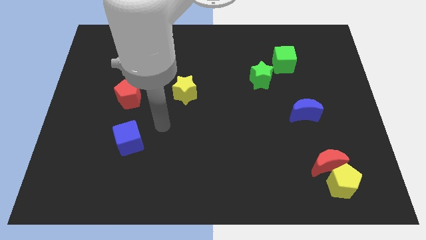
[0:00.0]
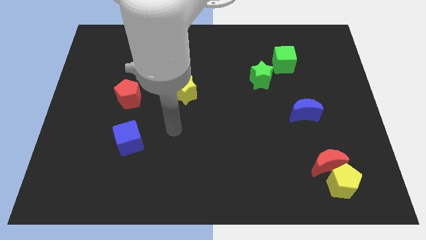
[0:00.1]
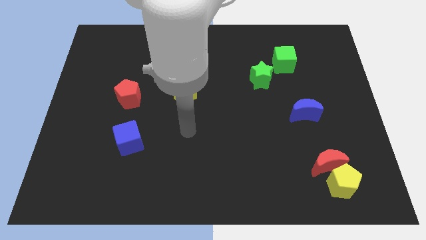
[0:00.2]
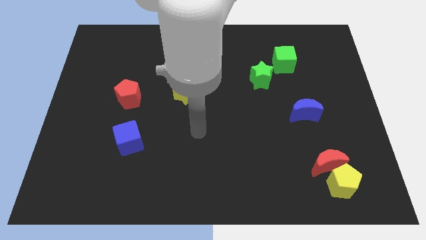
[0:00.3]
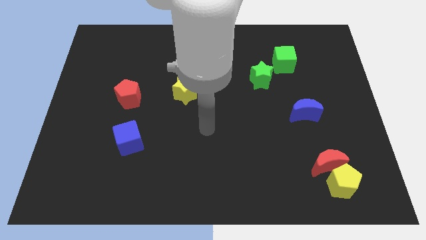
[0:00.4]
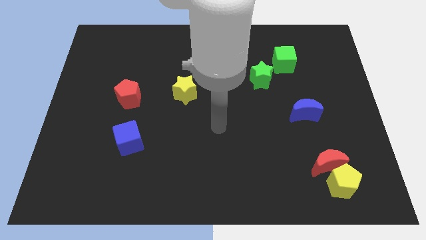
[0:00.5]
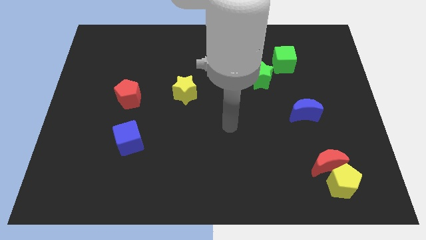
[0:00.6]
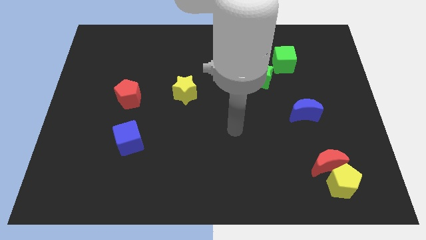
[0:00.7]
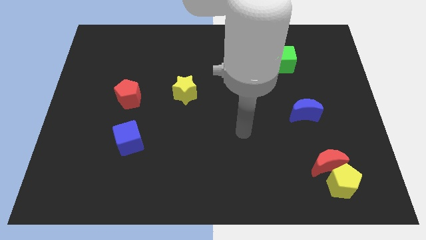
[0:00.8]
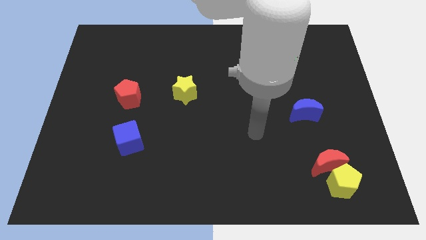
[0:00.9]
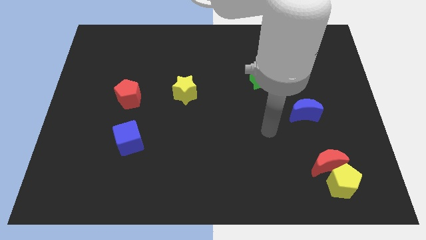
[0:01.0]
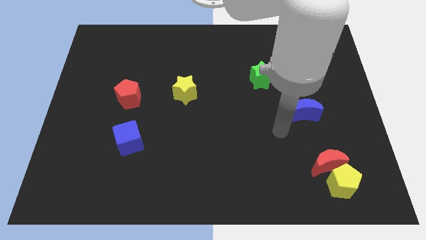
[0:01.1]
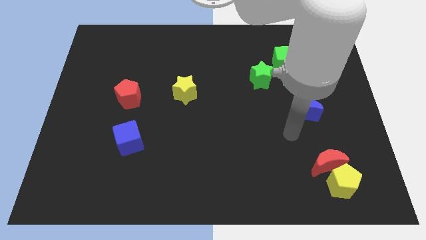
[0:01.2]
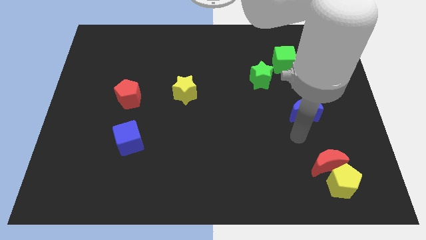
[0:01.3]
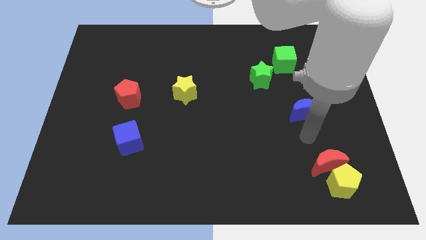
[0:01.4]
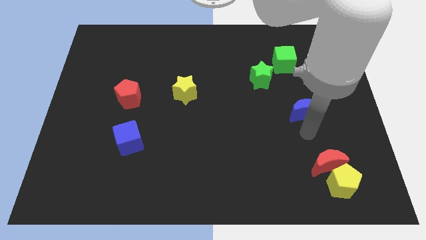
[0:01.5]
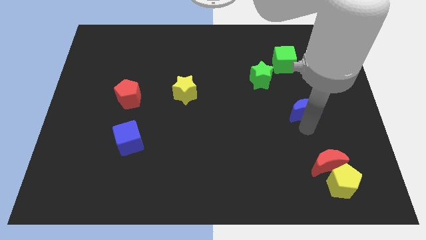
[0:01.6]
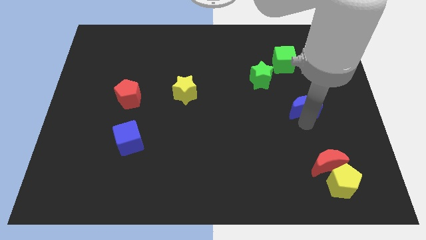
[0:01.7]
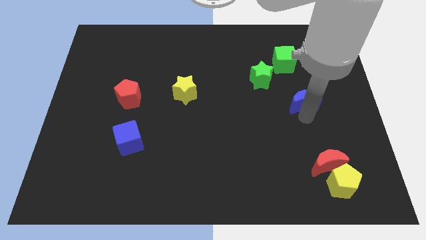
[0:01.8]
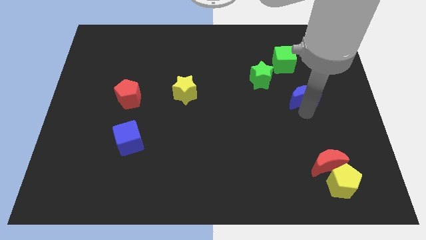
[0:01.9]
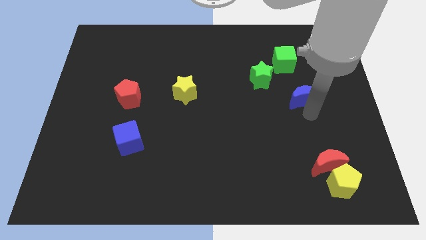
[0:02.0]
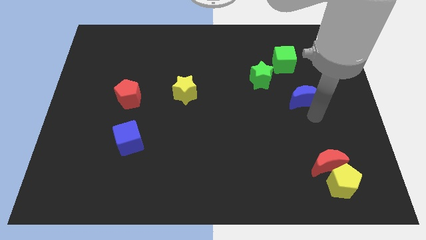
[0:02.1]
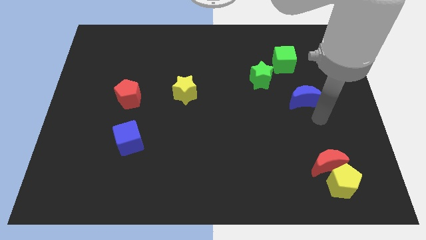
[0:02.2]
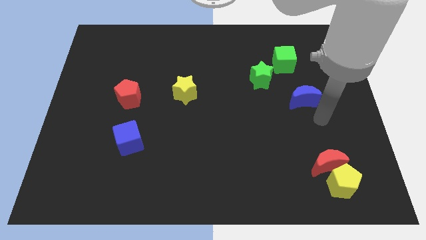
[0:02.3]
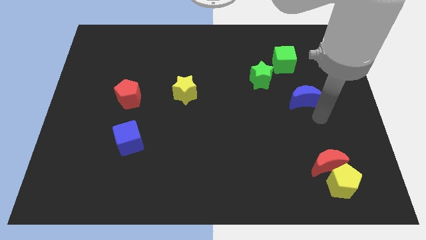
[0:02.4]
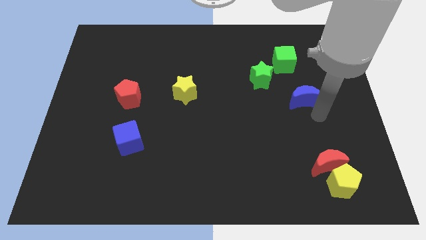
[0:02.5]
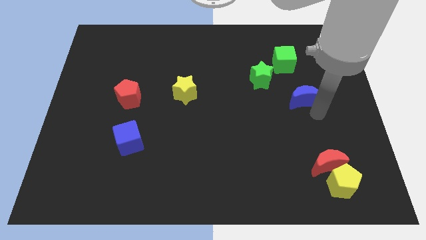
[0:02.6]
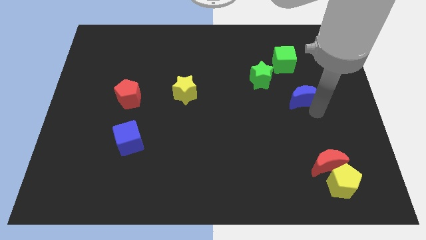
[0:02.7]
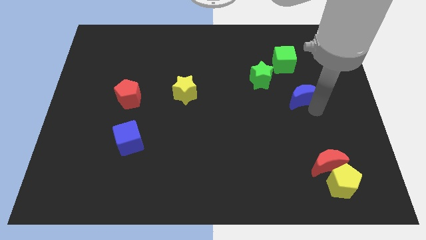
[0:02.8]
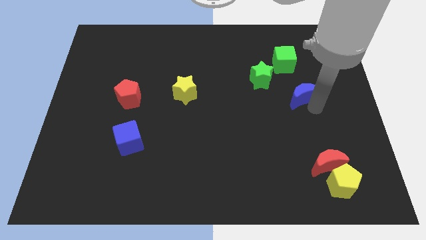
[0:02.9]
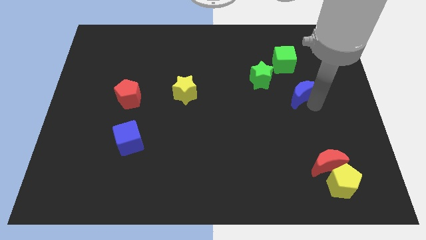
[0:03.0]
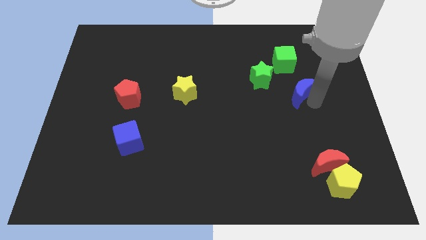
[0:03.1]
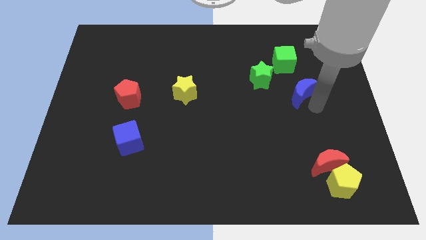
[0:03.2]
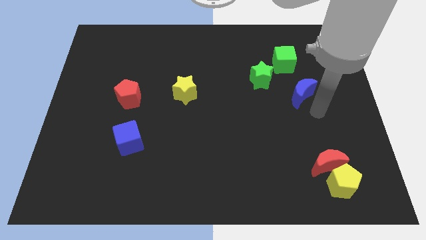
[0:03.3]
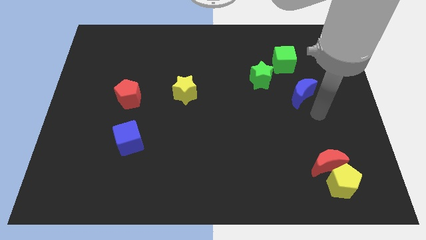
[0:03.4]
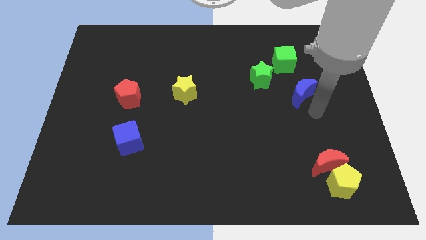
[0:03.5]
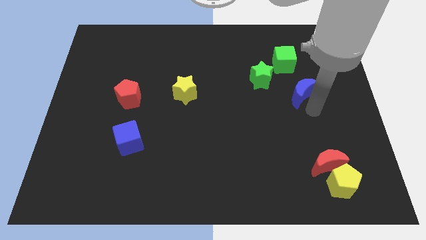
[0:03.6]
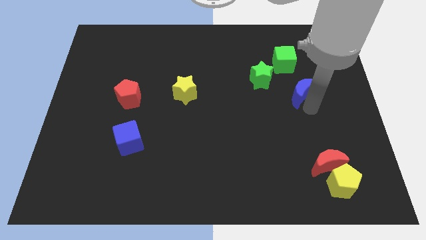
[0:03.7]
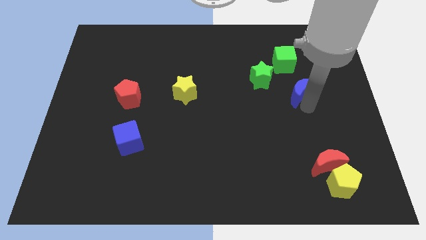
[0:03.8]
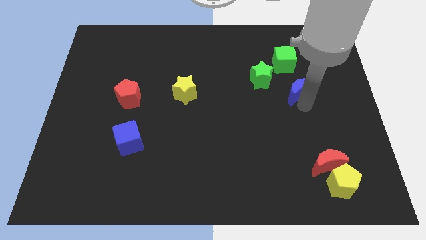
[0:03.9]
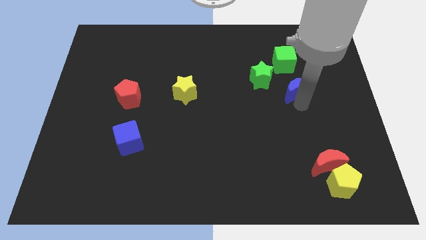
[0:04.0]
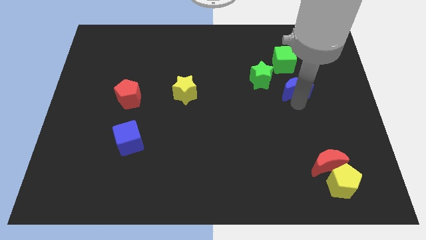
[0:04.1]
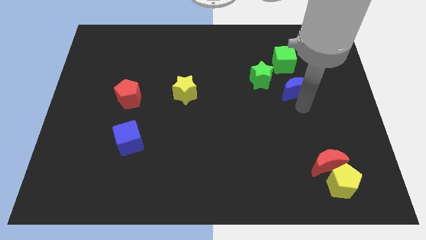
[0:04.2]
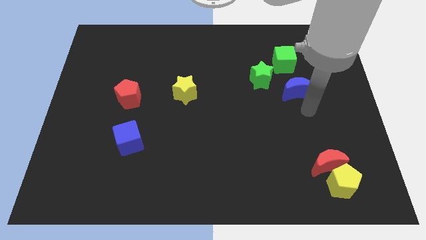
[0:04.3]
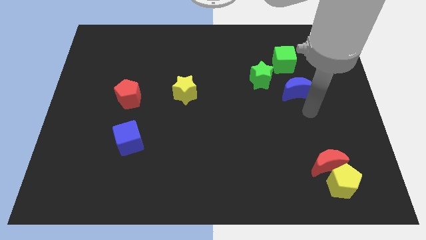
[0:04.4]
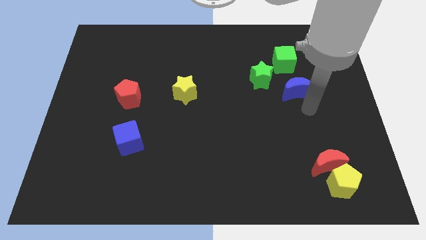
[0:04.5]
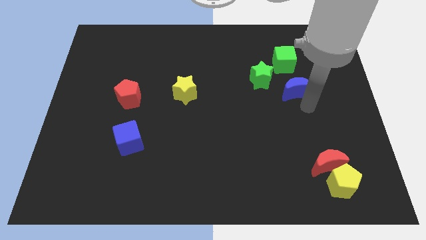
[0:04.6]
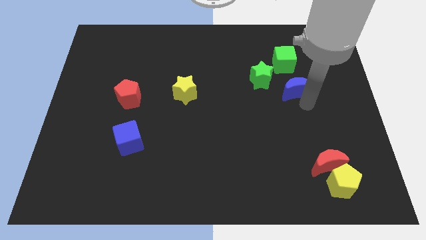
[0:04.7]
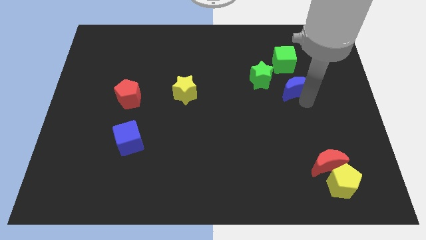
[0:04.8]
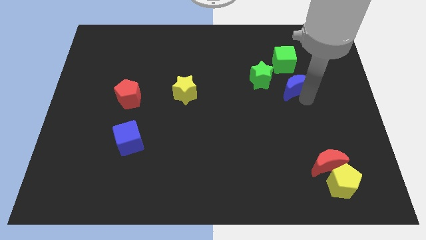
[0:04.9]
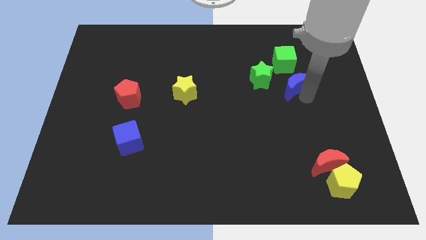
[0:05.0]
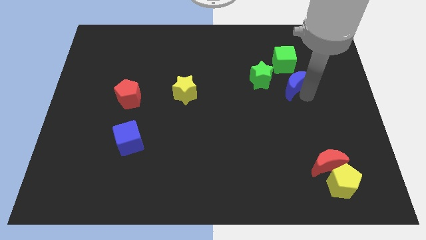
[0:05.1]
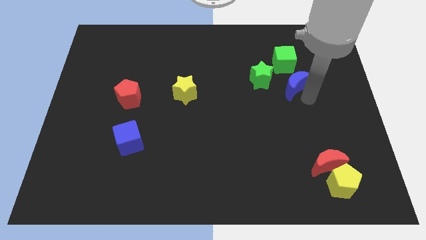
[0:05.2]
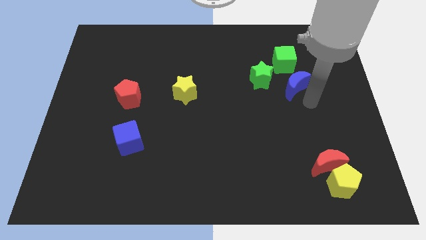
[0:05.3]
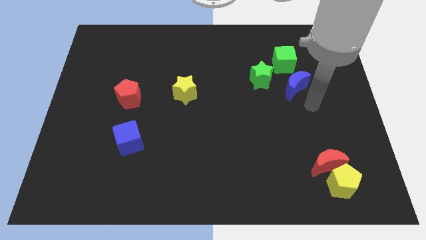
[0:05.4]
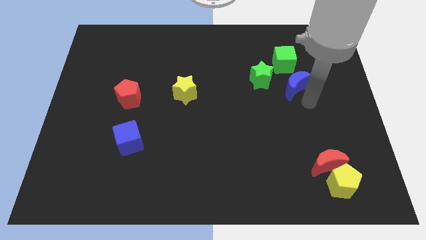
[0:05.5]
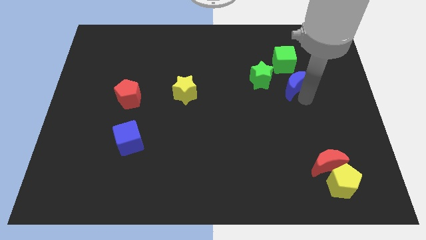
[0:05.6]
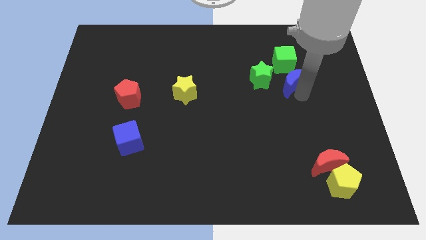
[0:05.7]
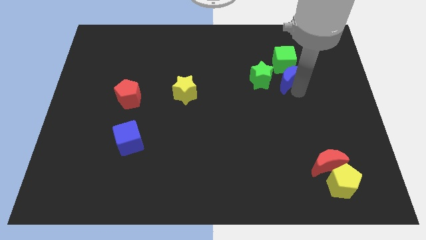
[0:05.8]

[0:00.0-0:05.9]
slide the blue moon to the green cube

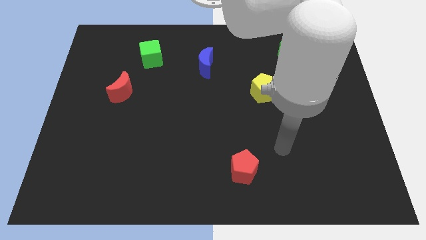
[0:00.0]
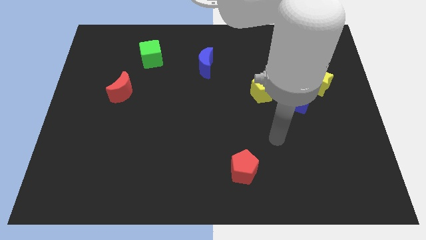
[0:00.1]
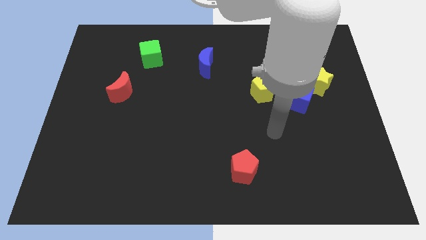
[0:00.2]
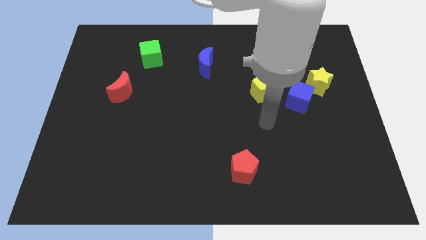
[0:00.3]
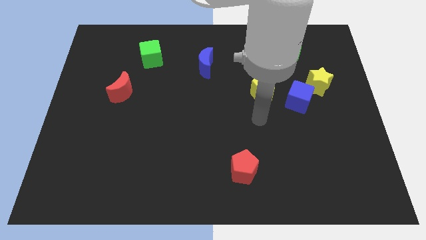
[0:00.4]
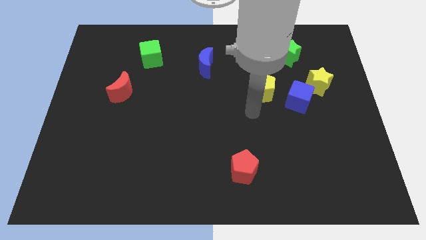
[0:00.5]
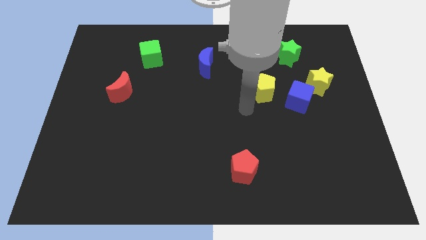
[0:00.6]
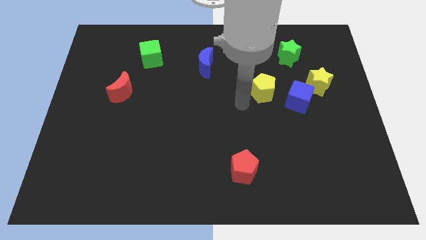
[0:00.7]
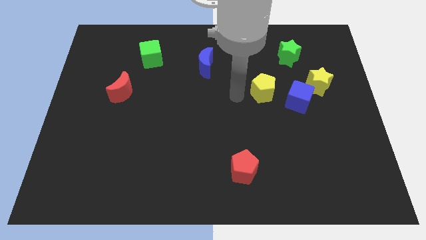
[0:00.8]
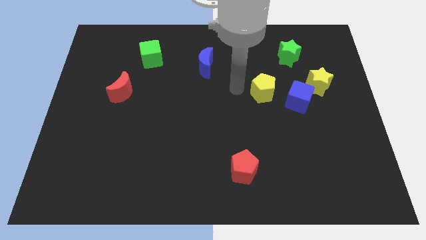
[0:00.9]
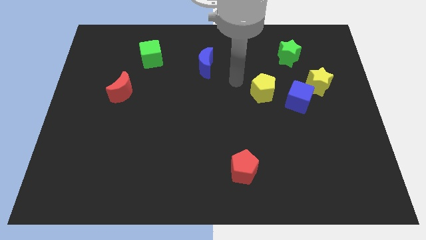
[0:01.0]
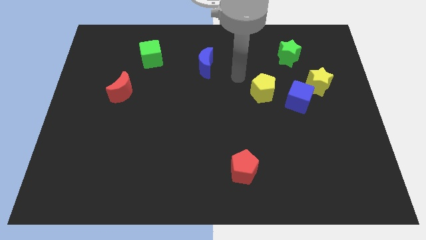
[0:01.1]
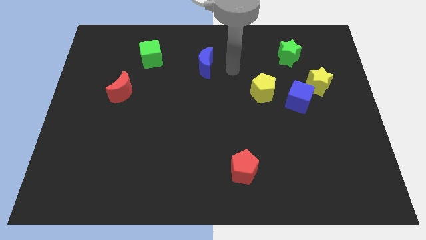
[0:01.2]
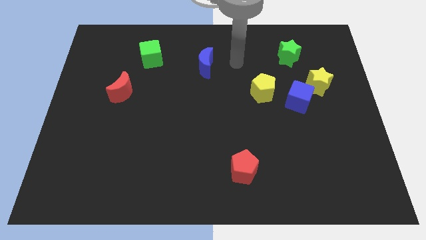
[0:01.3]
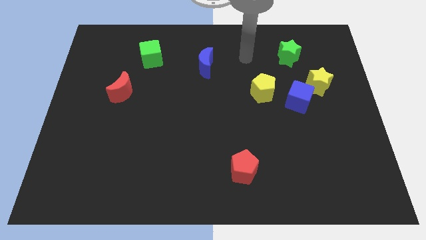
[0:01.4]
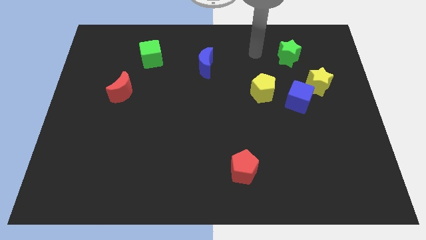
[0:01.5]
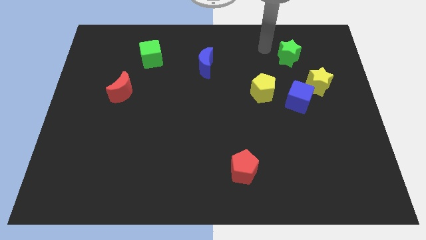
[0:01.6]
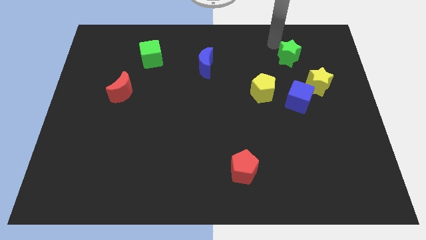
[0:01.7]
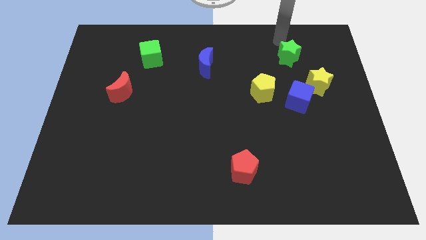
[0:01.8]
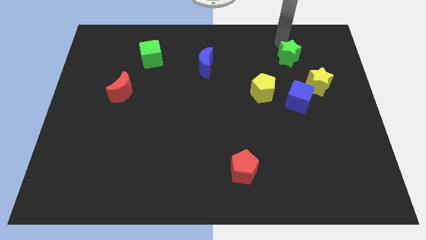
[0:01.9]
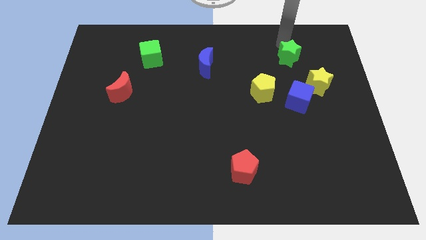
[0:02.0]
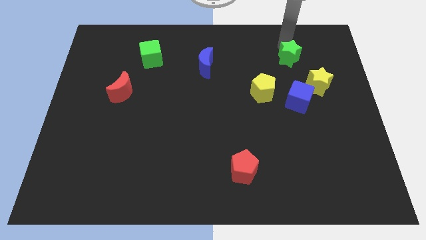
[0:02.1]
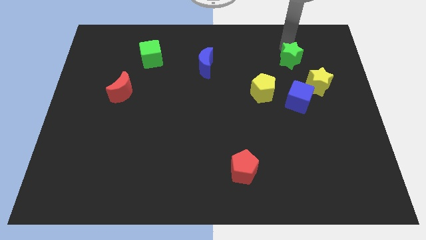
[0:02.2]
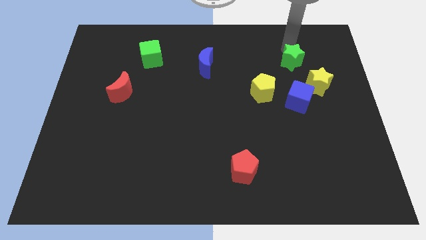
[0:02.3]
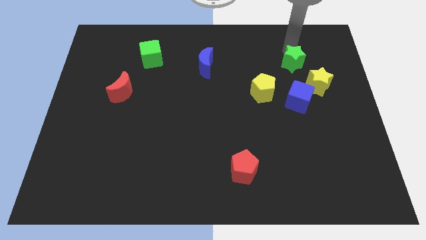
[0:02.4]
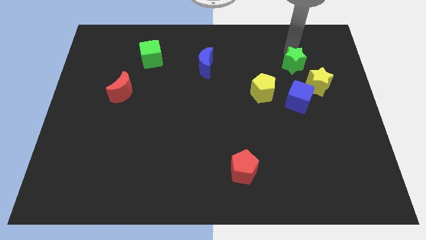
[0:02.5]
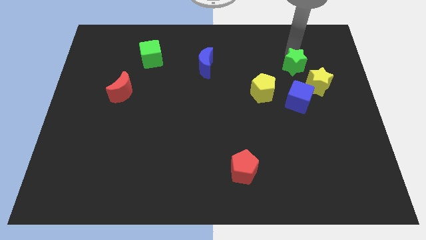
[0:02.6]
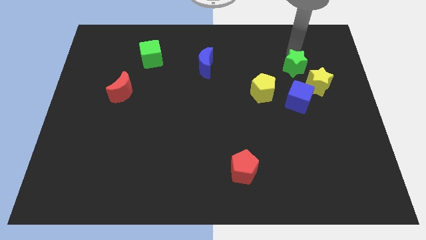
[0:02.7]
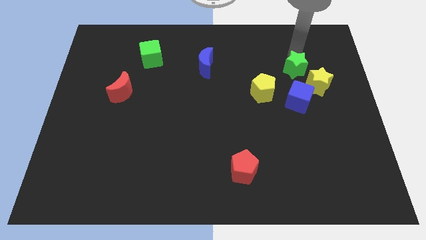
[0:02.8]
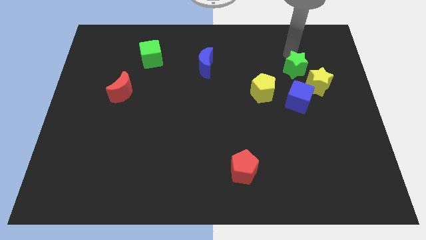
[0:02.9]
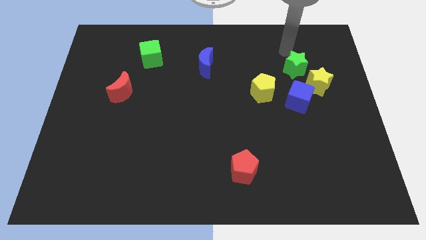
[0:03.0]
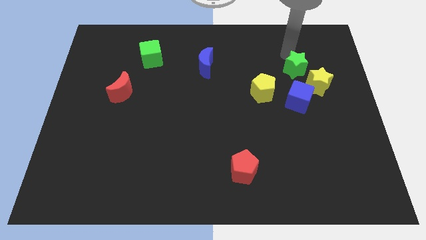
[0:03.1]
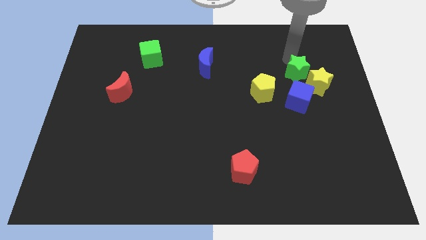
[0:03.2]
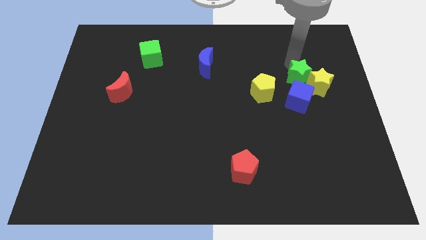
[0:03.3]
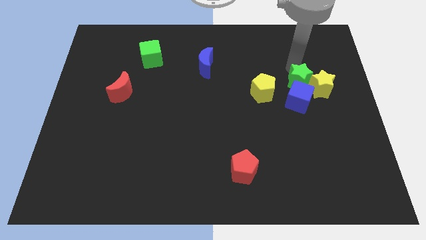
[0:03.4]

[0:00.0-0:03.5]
put the green star next to the blue cube
